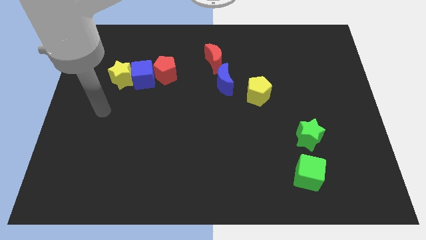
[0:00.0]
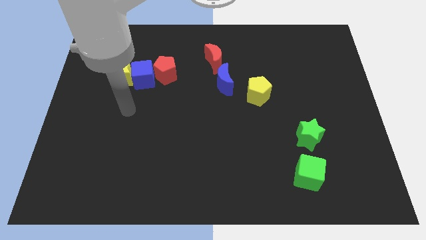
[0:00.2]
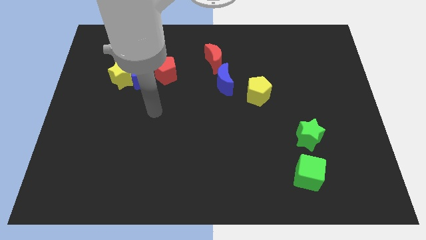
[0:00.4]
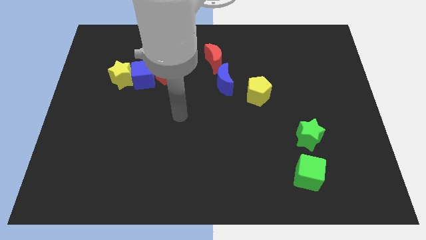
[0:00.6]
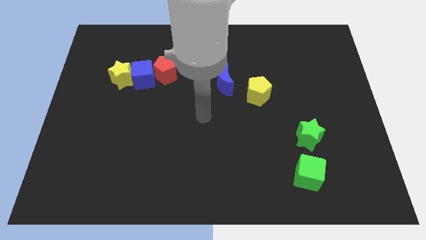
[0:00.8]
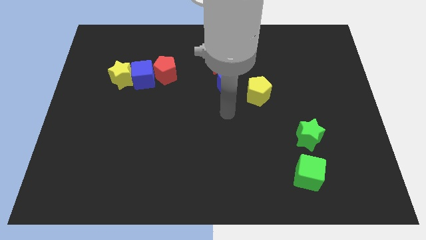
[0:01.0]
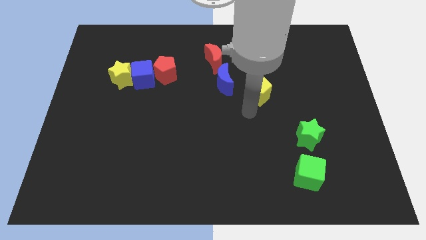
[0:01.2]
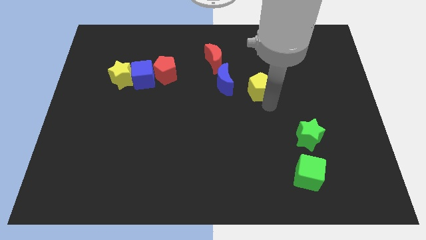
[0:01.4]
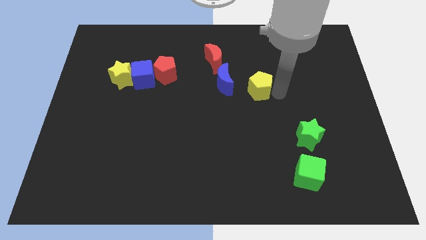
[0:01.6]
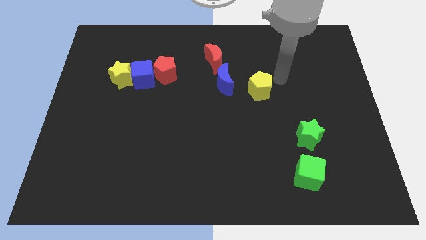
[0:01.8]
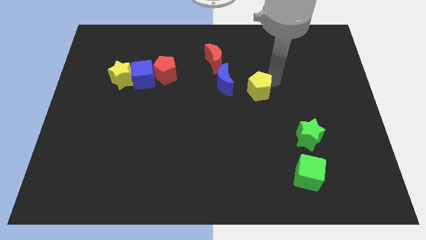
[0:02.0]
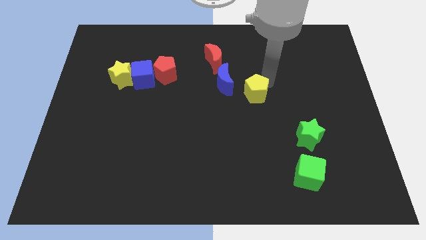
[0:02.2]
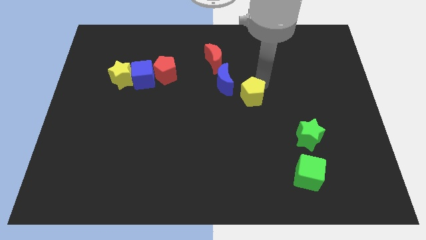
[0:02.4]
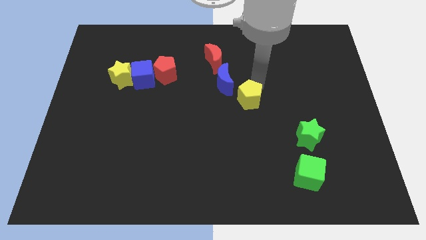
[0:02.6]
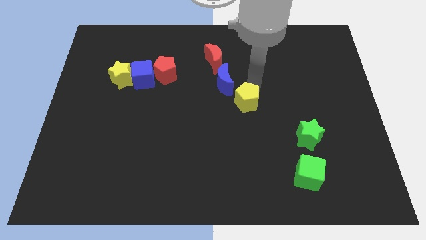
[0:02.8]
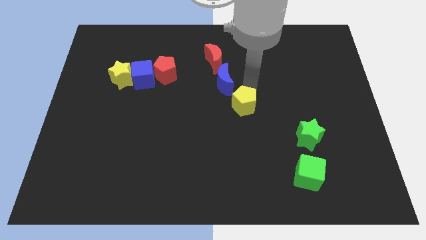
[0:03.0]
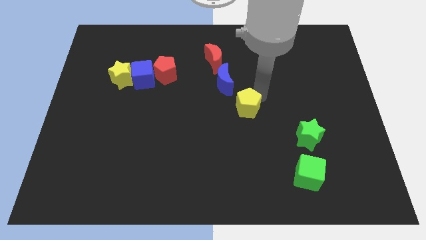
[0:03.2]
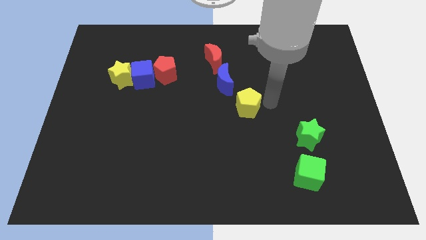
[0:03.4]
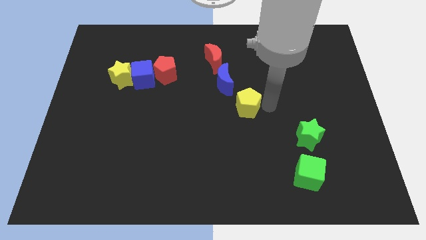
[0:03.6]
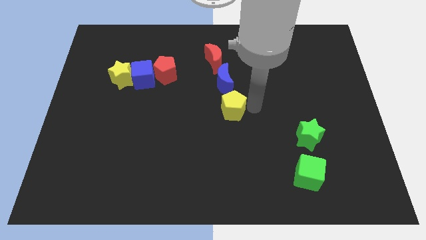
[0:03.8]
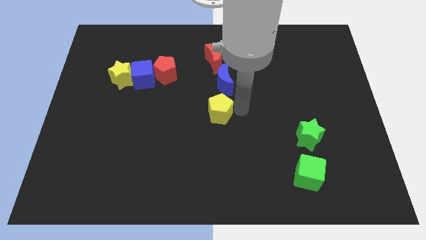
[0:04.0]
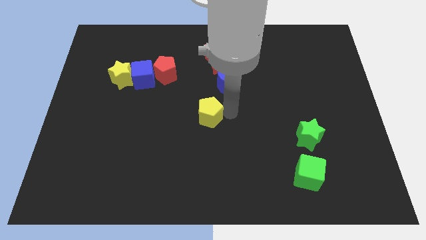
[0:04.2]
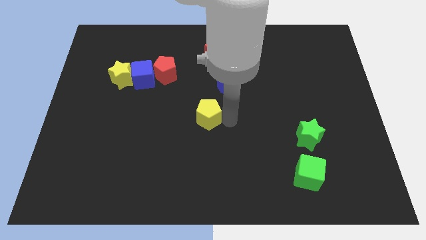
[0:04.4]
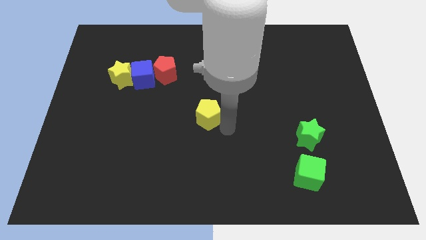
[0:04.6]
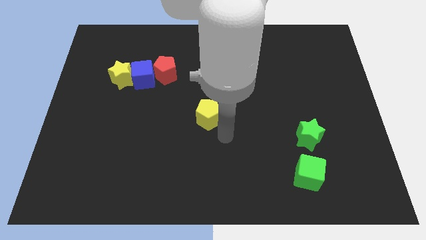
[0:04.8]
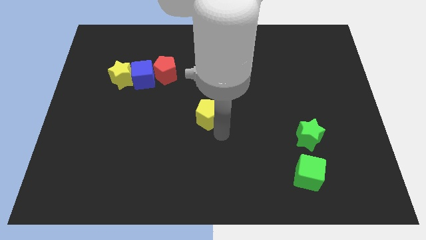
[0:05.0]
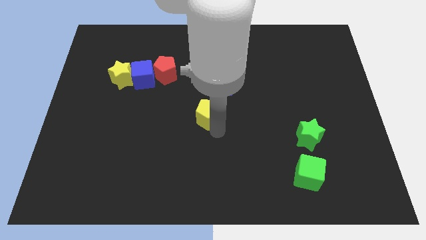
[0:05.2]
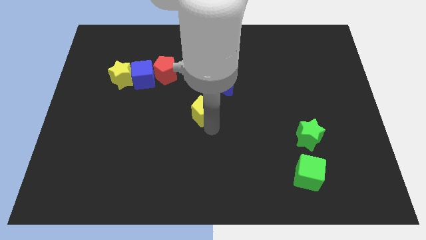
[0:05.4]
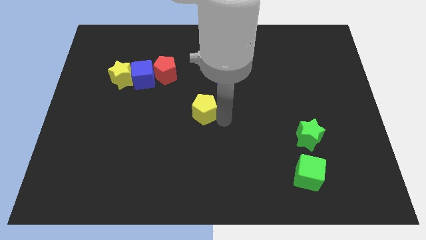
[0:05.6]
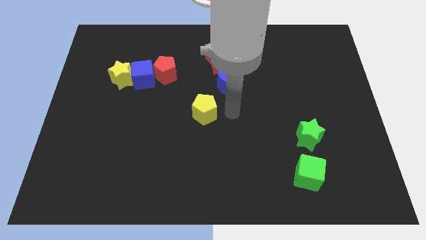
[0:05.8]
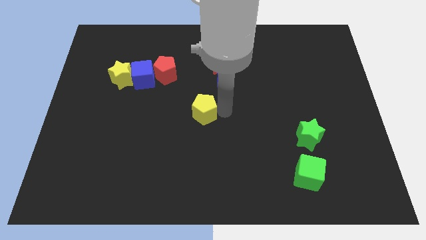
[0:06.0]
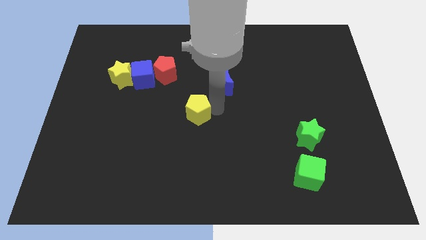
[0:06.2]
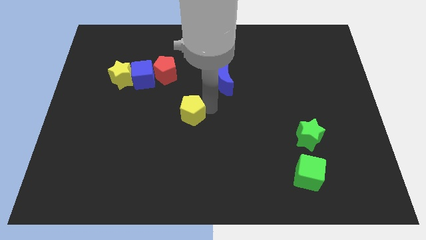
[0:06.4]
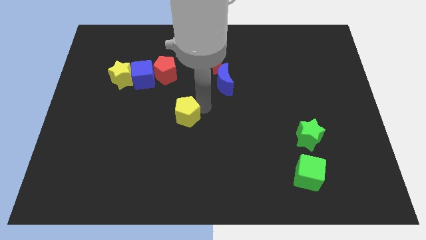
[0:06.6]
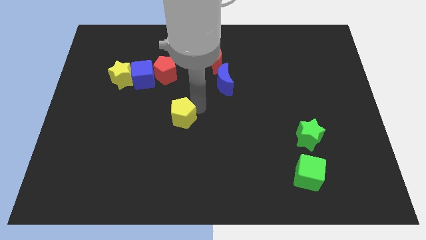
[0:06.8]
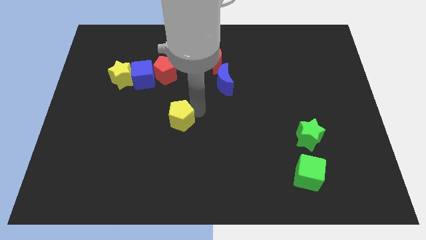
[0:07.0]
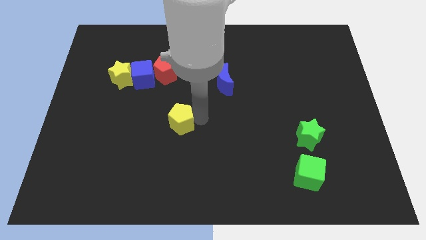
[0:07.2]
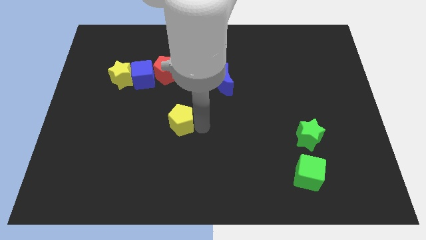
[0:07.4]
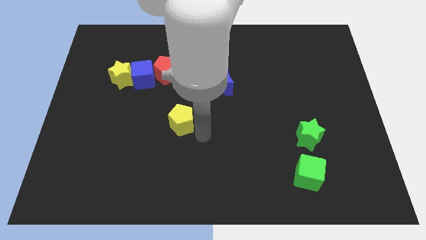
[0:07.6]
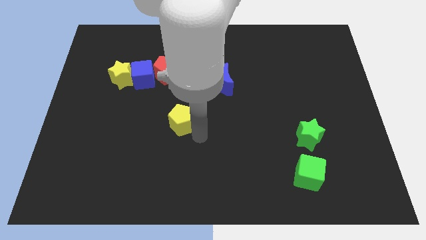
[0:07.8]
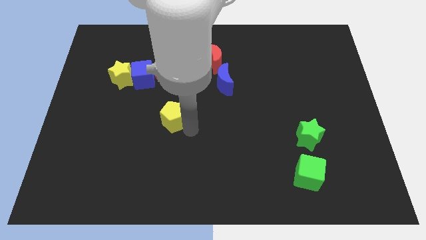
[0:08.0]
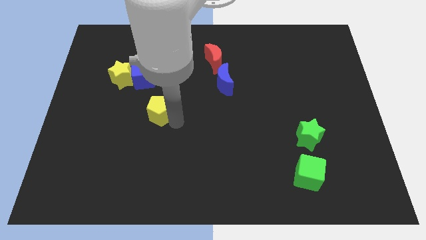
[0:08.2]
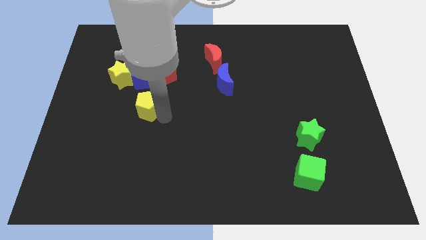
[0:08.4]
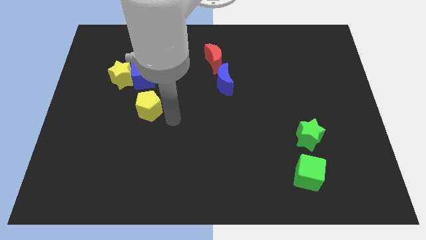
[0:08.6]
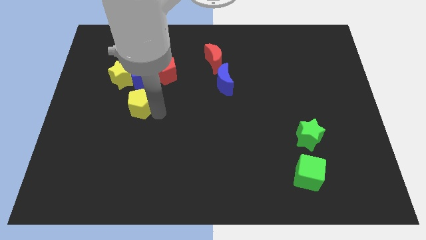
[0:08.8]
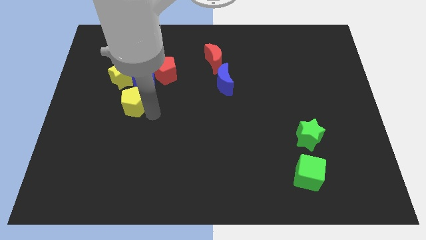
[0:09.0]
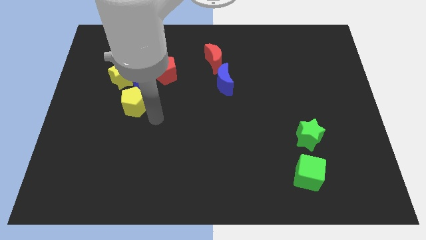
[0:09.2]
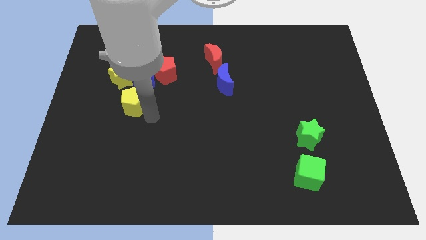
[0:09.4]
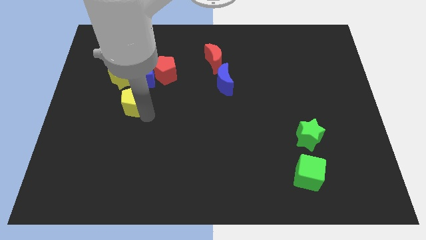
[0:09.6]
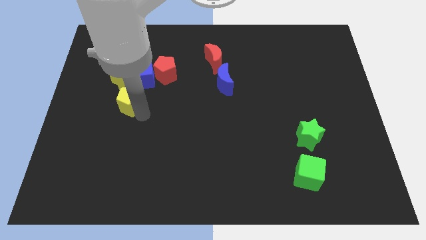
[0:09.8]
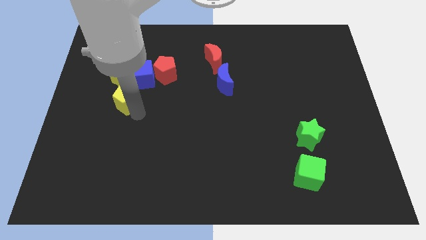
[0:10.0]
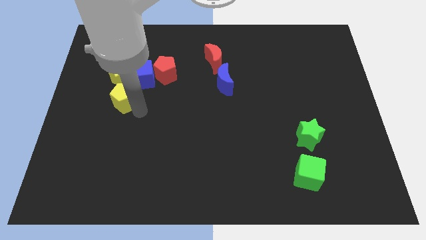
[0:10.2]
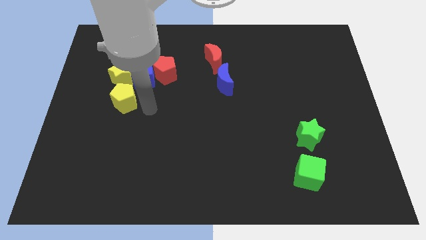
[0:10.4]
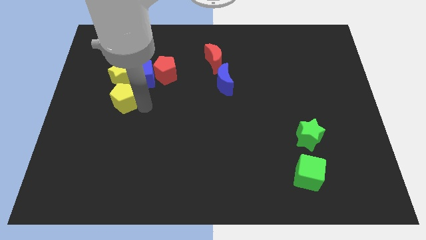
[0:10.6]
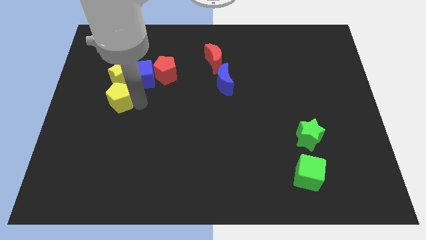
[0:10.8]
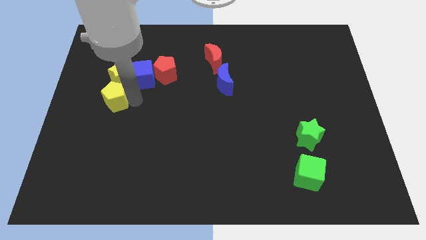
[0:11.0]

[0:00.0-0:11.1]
move the yellow pentagon to the bottom left of the yellow star
